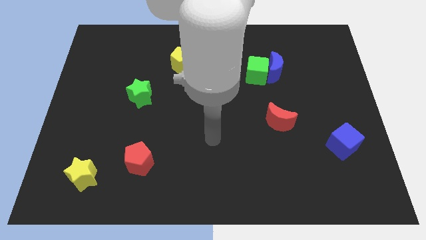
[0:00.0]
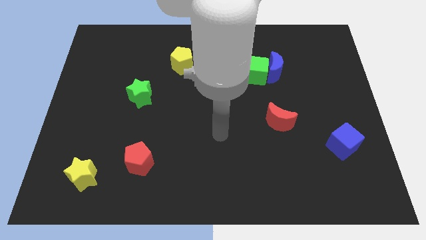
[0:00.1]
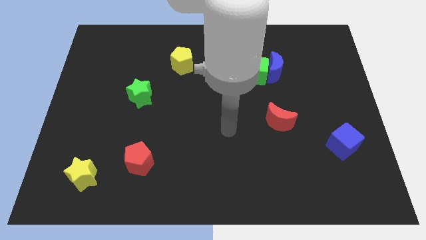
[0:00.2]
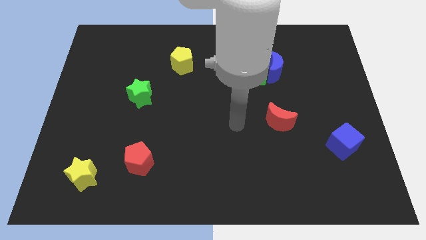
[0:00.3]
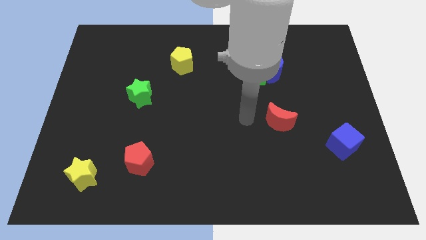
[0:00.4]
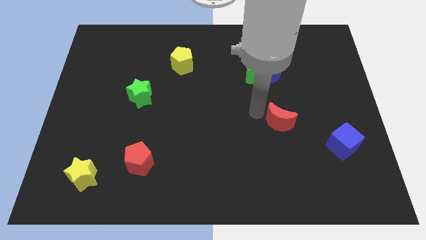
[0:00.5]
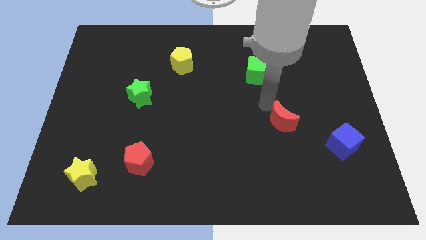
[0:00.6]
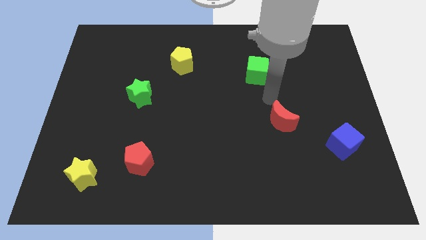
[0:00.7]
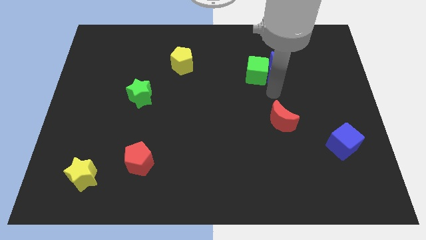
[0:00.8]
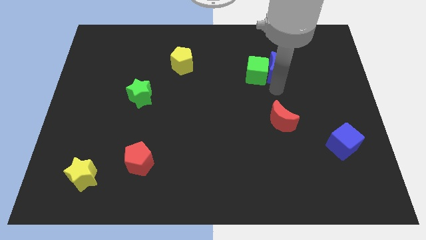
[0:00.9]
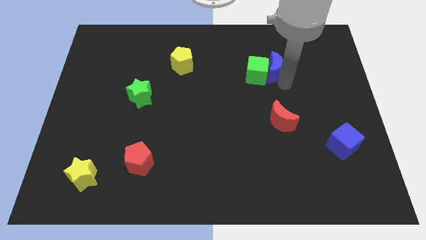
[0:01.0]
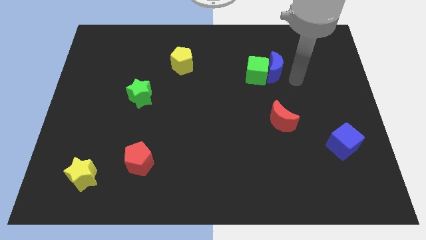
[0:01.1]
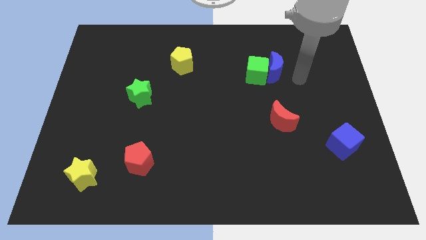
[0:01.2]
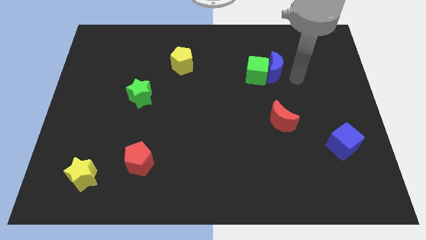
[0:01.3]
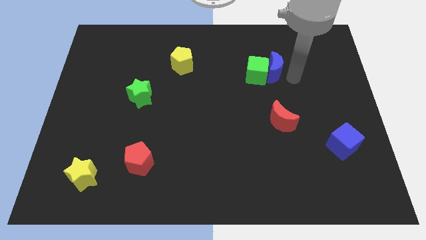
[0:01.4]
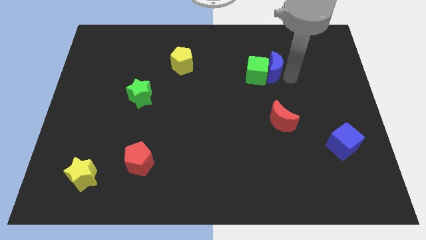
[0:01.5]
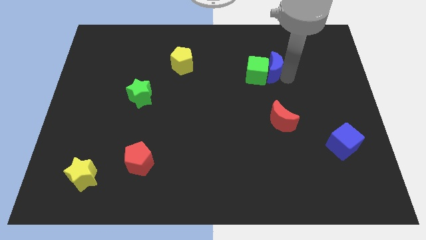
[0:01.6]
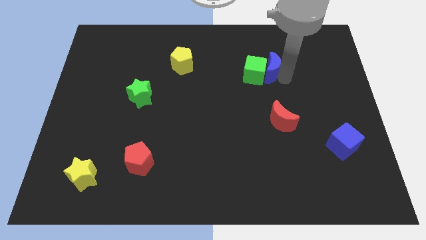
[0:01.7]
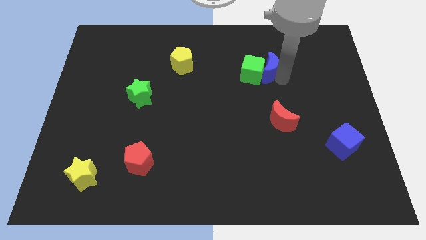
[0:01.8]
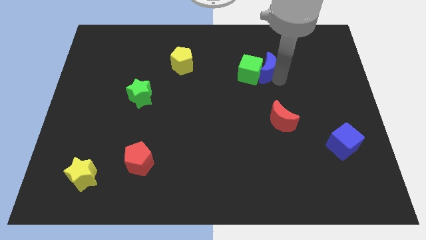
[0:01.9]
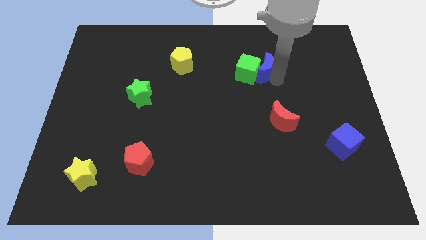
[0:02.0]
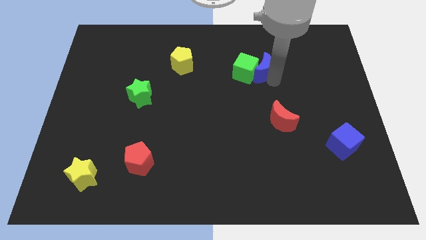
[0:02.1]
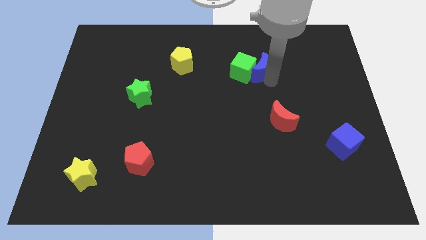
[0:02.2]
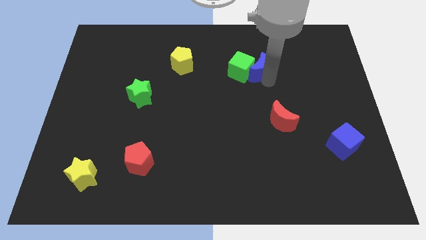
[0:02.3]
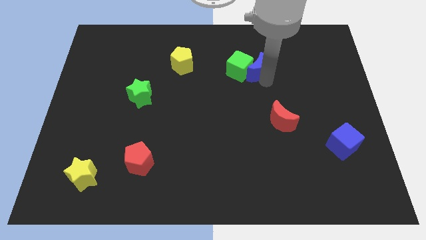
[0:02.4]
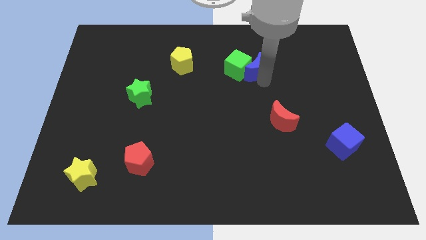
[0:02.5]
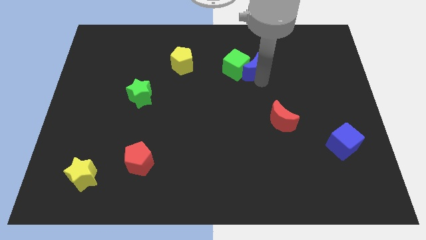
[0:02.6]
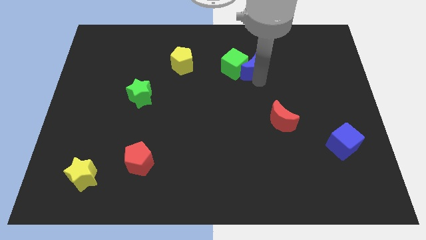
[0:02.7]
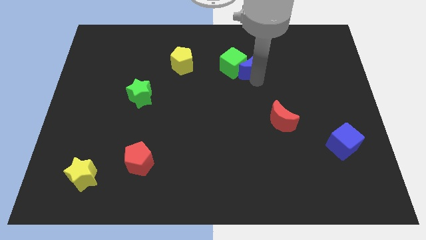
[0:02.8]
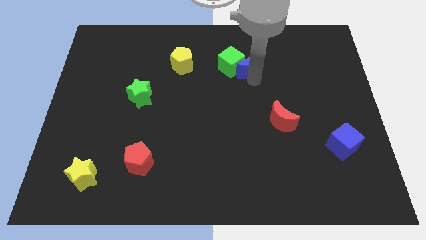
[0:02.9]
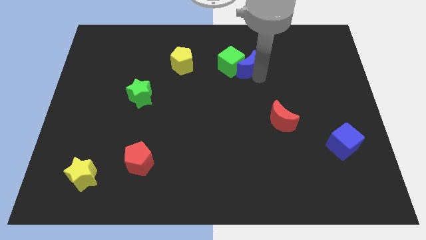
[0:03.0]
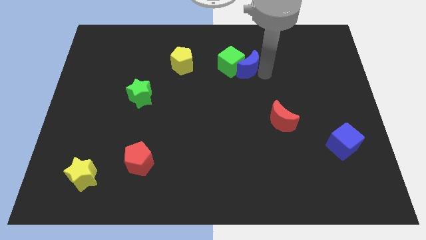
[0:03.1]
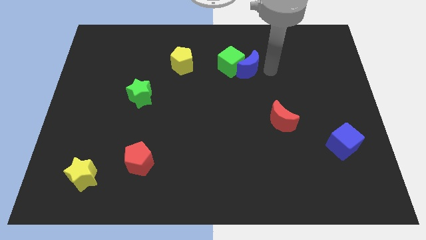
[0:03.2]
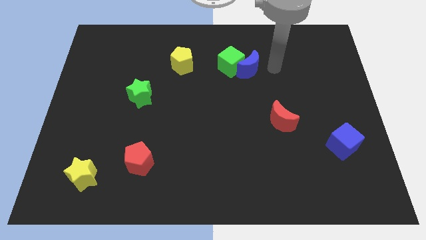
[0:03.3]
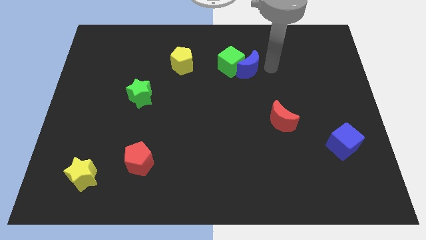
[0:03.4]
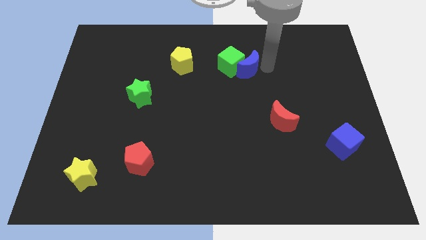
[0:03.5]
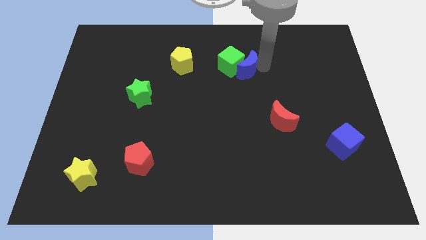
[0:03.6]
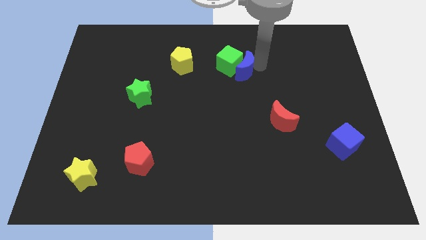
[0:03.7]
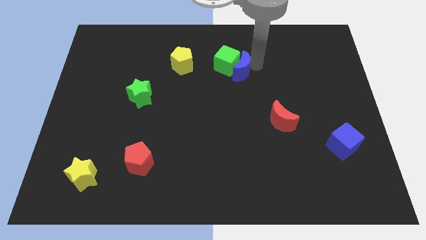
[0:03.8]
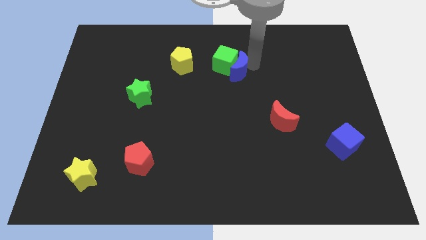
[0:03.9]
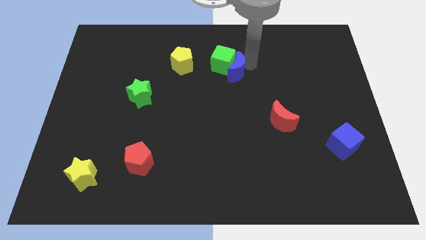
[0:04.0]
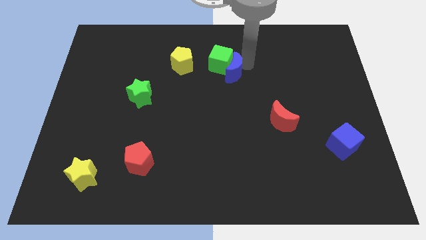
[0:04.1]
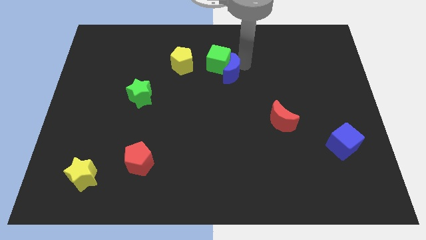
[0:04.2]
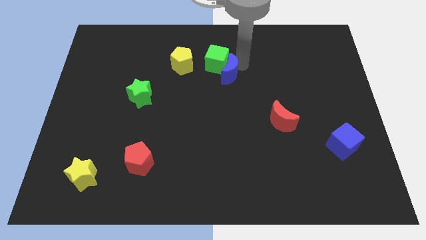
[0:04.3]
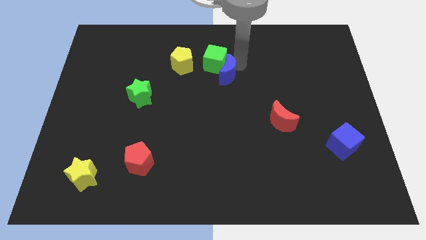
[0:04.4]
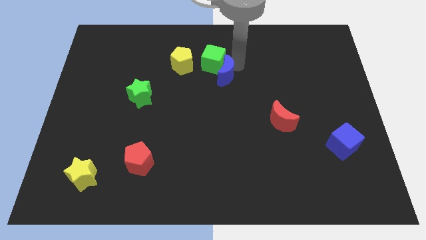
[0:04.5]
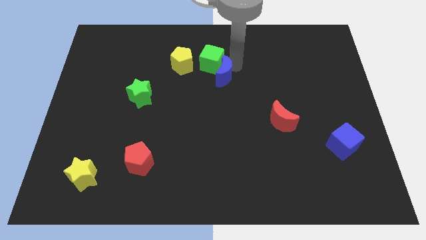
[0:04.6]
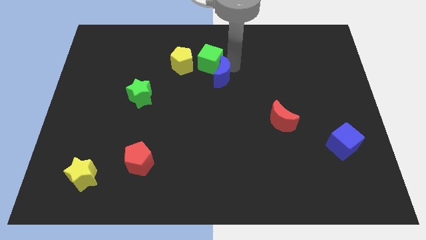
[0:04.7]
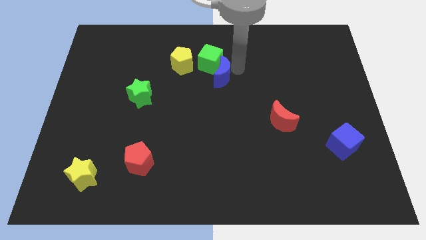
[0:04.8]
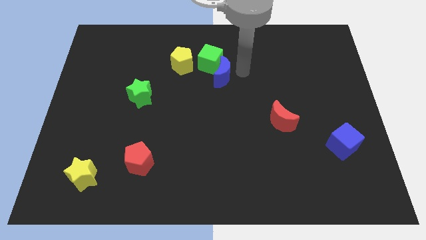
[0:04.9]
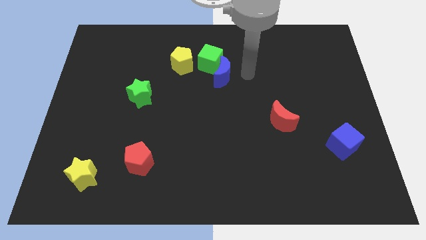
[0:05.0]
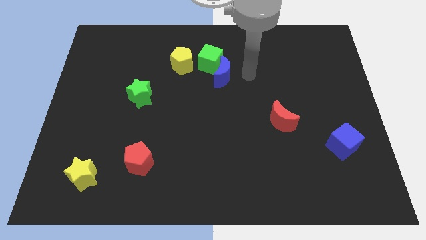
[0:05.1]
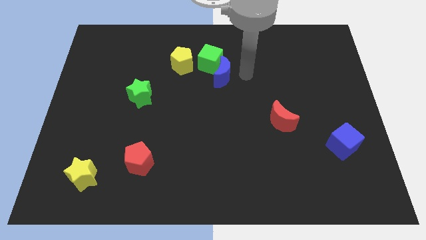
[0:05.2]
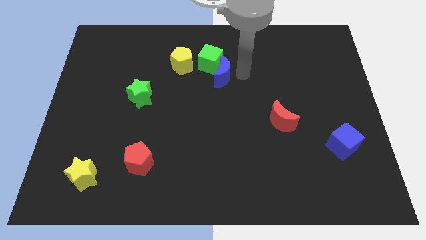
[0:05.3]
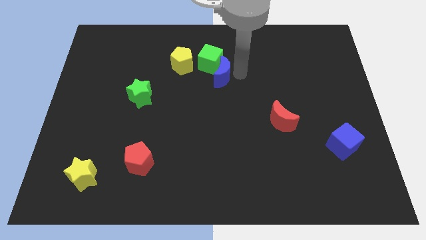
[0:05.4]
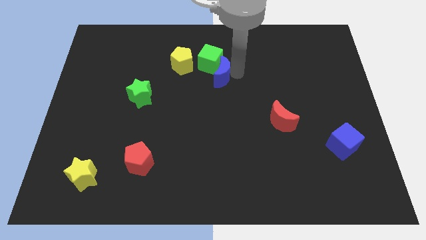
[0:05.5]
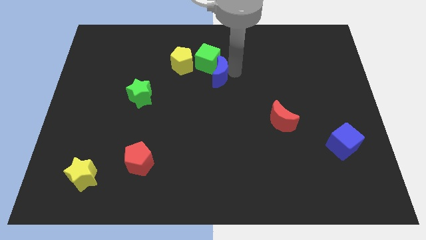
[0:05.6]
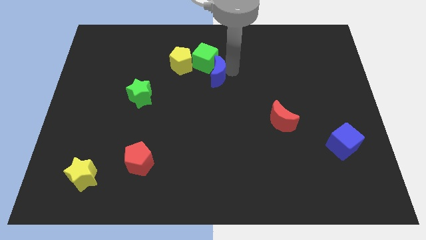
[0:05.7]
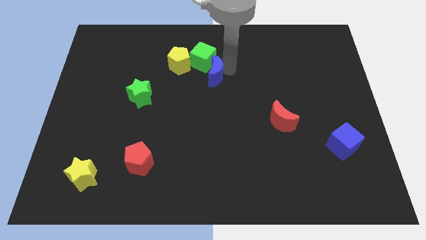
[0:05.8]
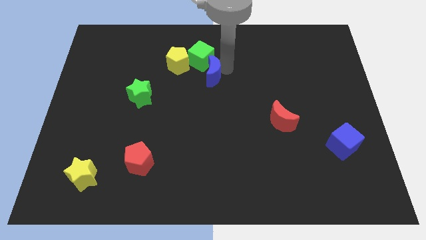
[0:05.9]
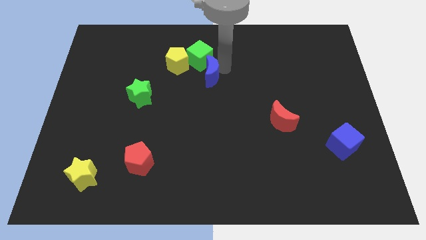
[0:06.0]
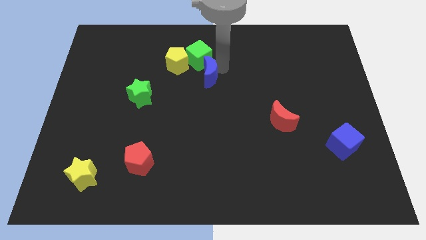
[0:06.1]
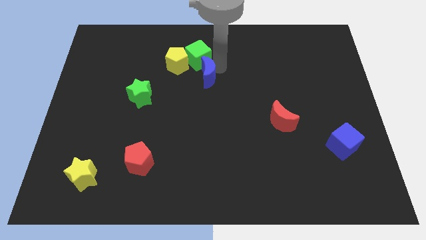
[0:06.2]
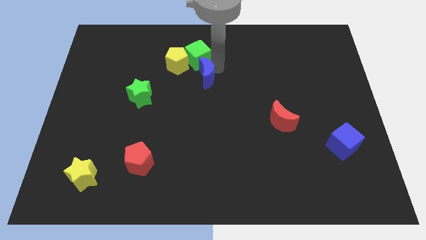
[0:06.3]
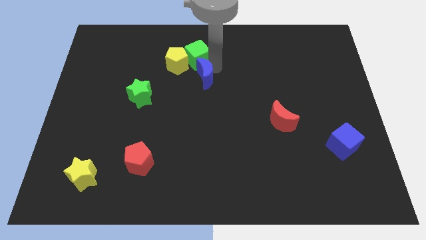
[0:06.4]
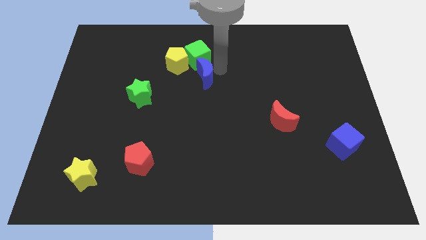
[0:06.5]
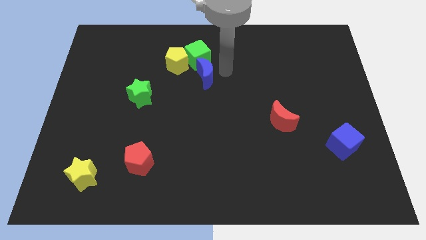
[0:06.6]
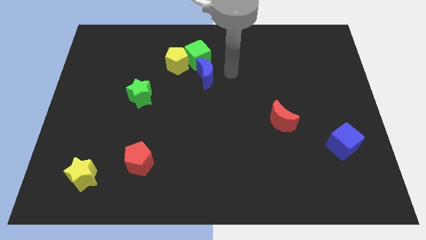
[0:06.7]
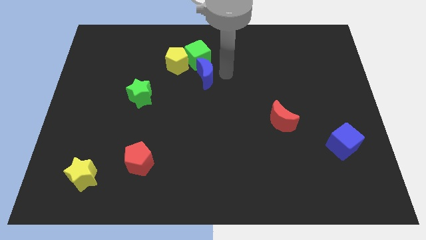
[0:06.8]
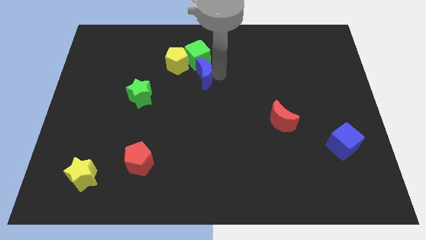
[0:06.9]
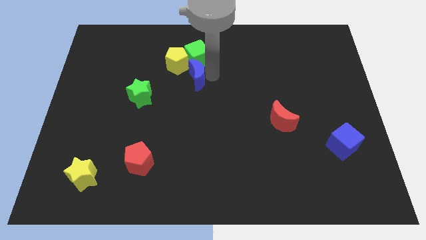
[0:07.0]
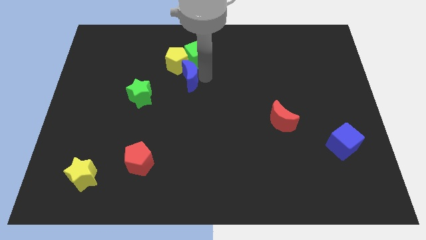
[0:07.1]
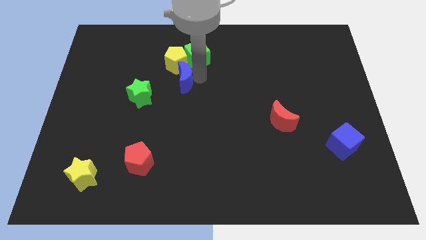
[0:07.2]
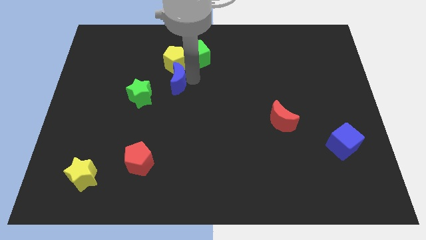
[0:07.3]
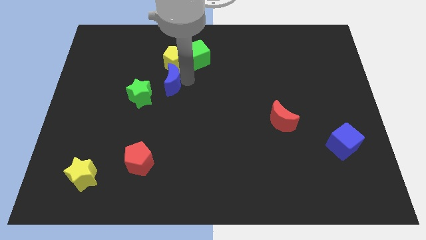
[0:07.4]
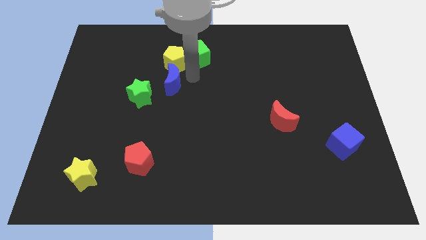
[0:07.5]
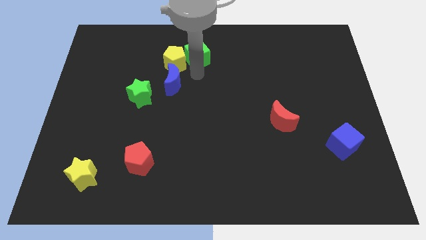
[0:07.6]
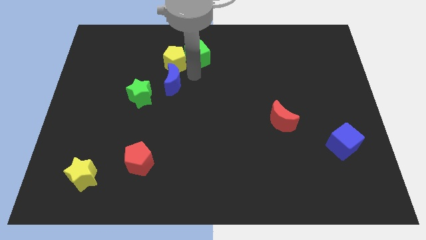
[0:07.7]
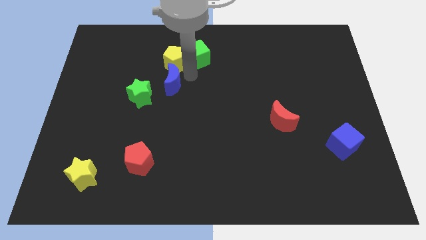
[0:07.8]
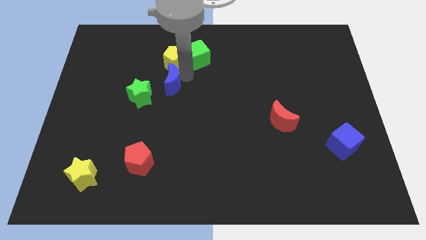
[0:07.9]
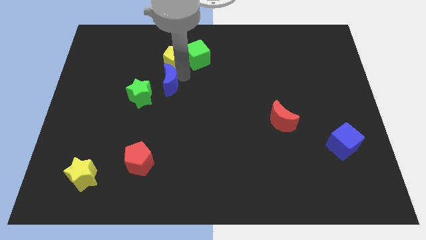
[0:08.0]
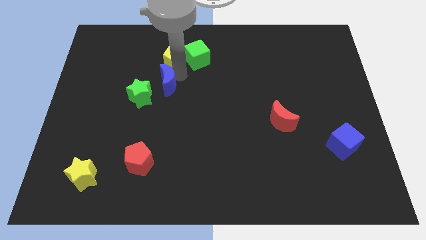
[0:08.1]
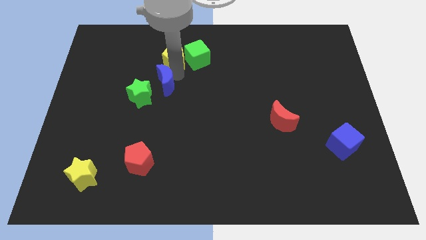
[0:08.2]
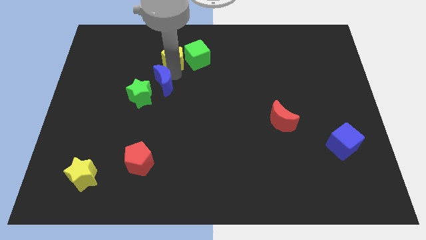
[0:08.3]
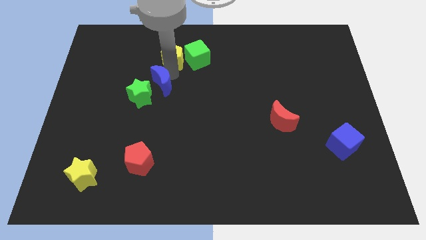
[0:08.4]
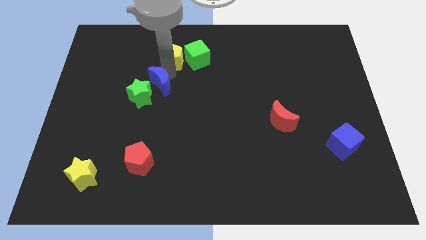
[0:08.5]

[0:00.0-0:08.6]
push the blue moon towards the green star
